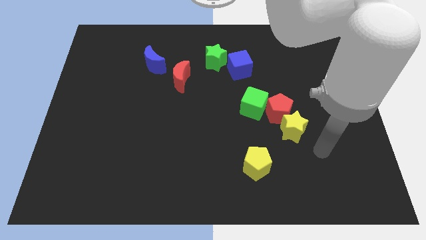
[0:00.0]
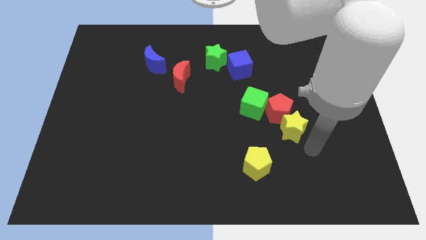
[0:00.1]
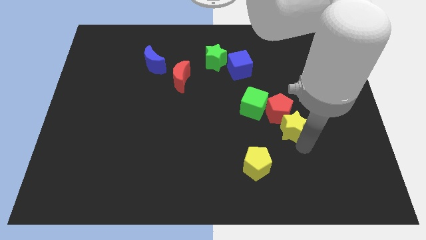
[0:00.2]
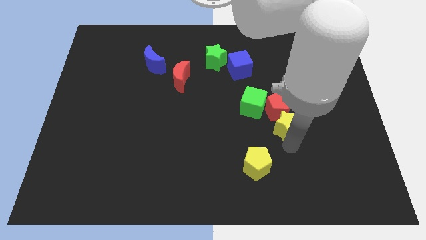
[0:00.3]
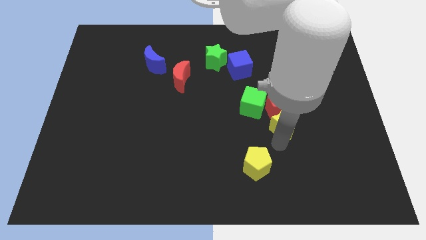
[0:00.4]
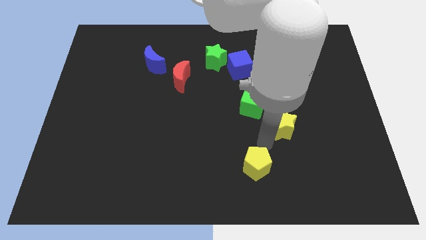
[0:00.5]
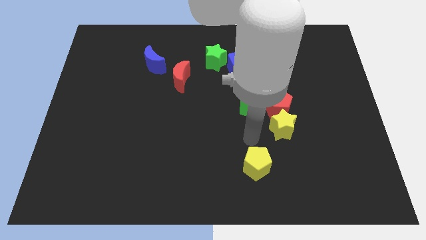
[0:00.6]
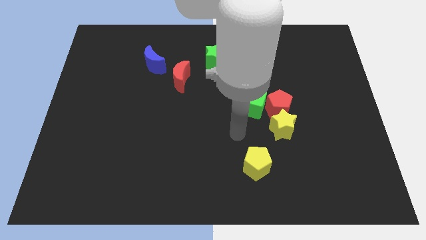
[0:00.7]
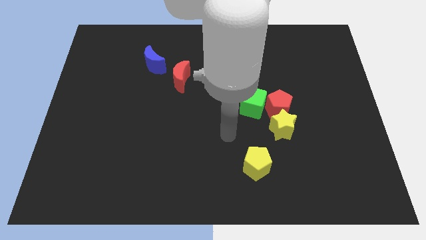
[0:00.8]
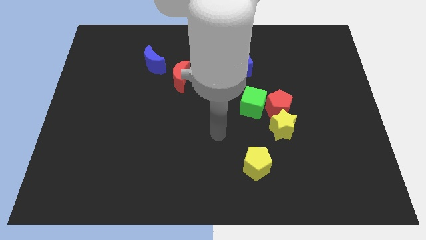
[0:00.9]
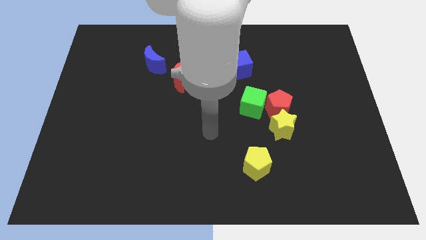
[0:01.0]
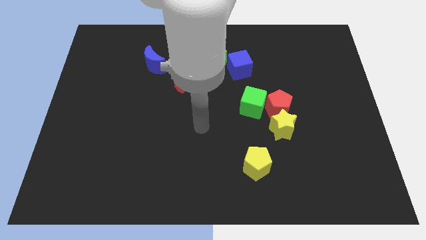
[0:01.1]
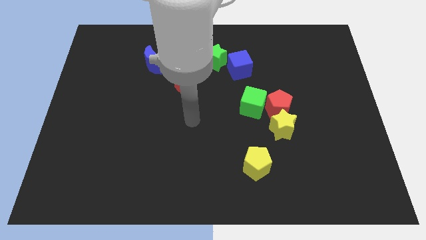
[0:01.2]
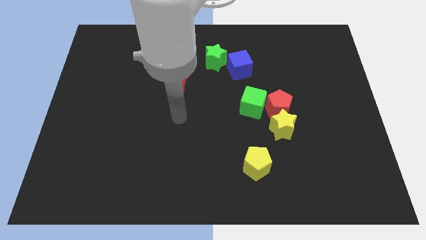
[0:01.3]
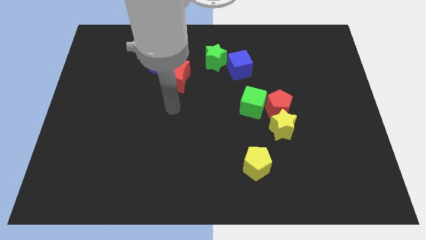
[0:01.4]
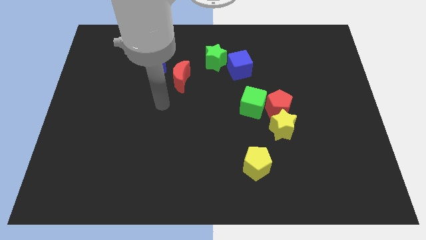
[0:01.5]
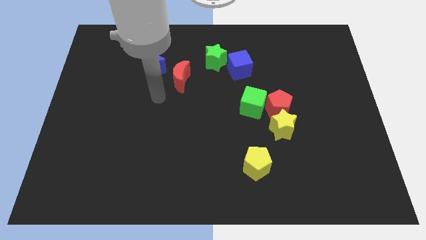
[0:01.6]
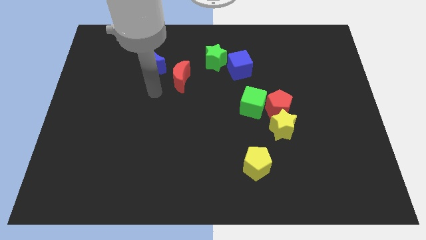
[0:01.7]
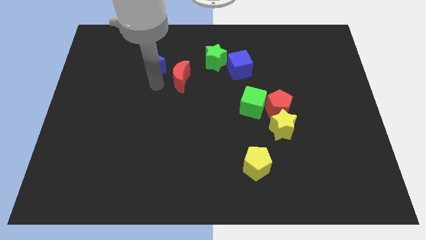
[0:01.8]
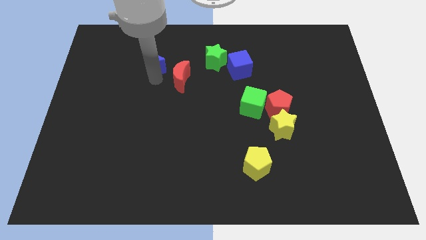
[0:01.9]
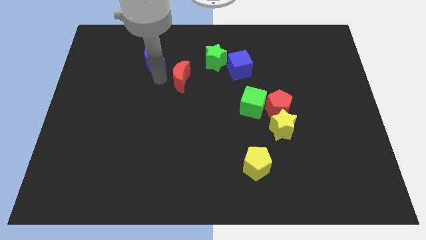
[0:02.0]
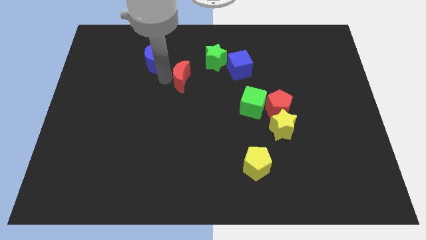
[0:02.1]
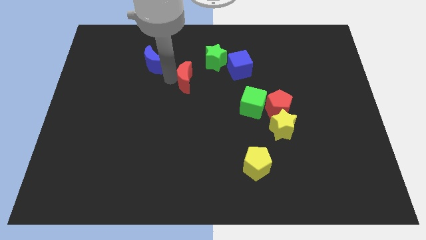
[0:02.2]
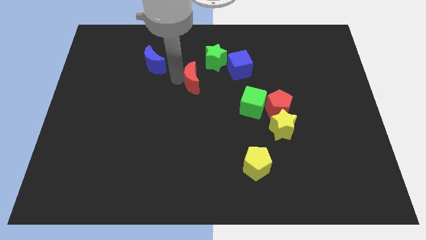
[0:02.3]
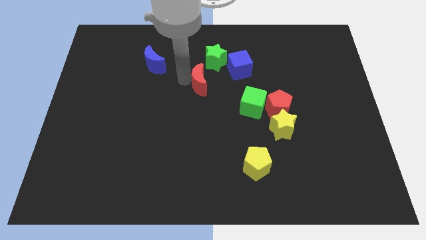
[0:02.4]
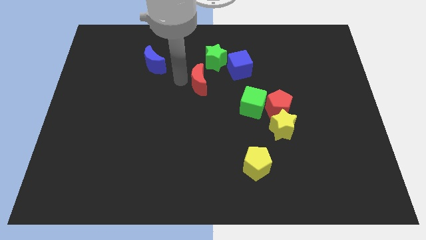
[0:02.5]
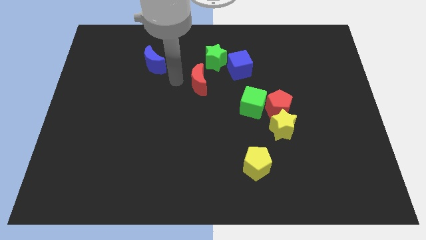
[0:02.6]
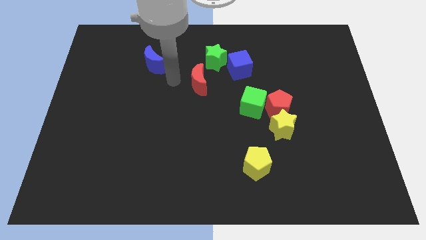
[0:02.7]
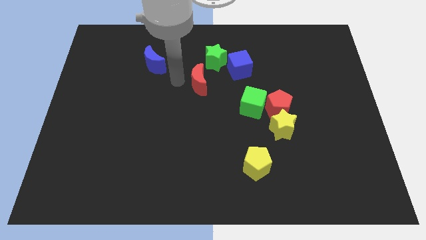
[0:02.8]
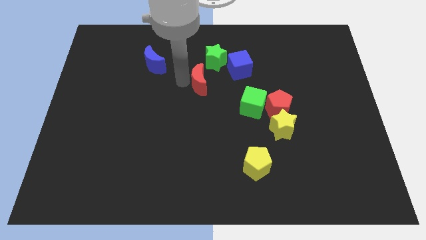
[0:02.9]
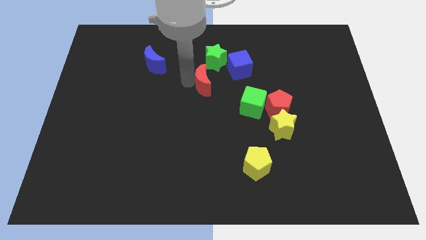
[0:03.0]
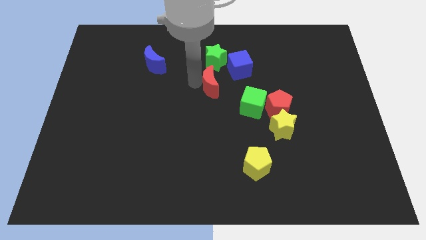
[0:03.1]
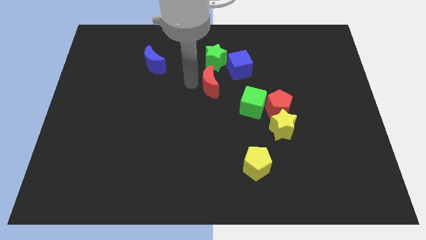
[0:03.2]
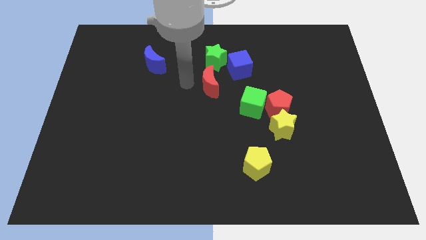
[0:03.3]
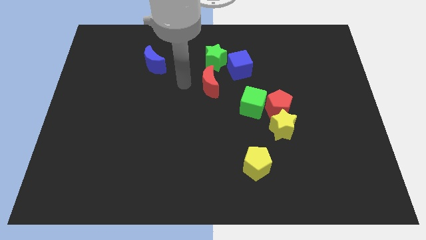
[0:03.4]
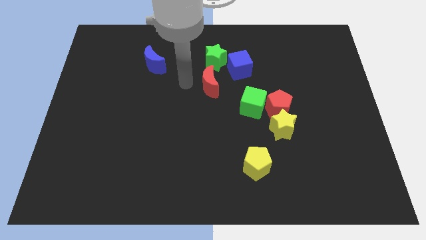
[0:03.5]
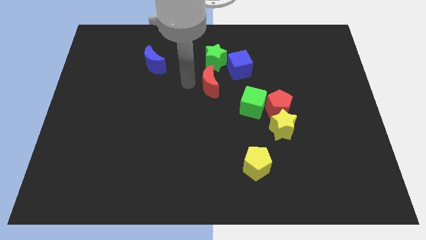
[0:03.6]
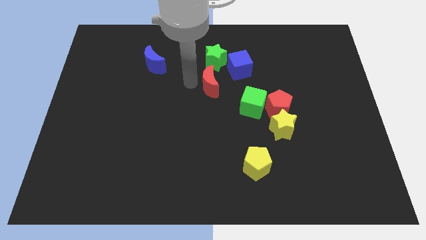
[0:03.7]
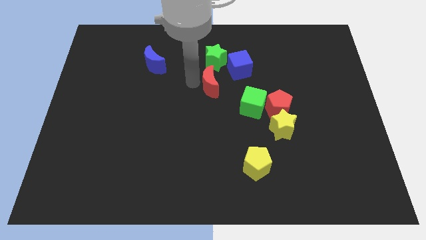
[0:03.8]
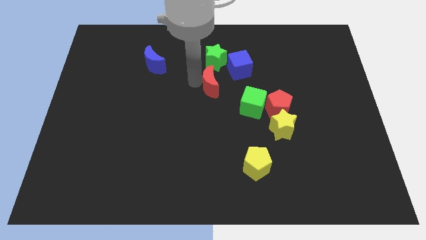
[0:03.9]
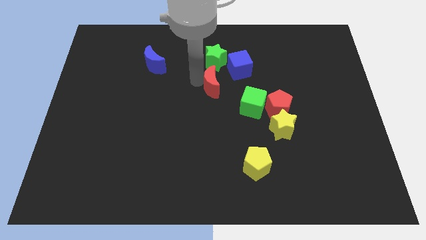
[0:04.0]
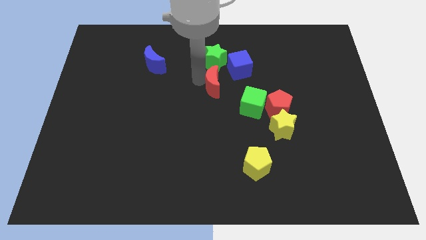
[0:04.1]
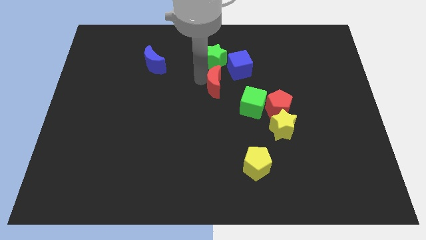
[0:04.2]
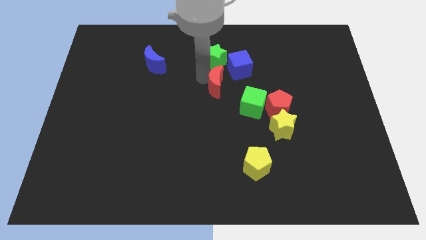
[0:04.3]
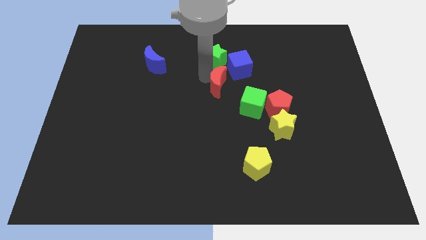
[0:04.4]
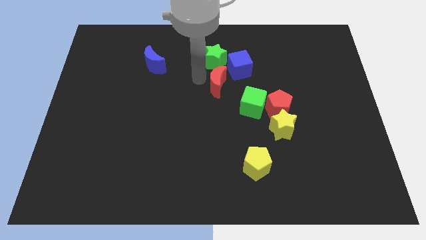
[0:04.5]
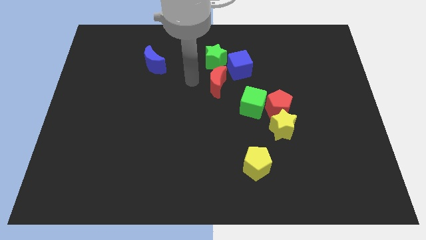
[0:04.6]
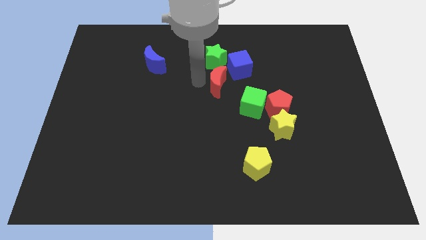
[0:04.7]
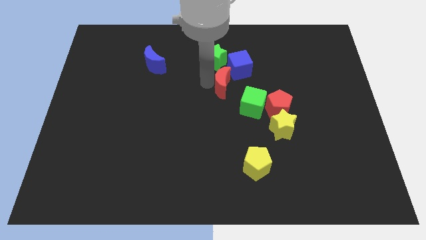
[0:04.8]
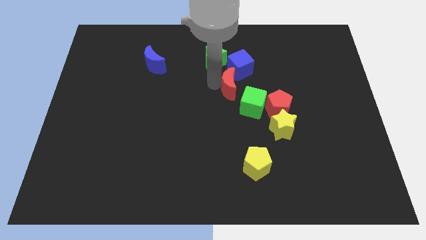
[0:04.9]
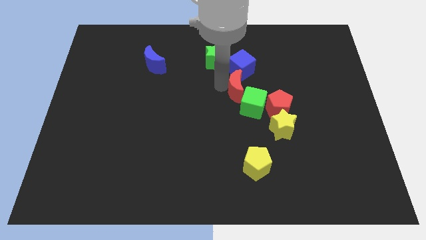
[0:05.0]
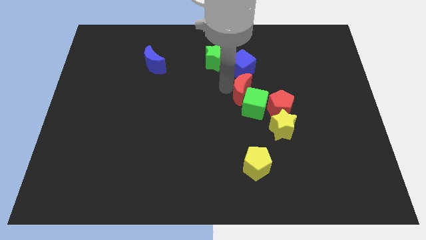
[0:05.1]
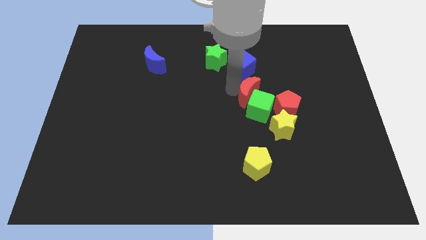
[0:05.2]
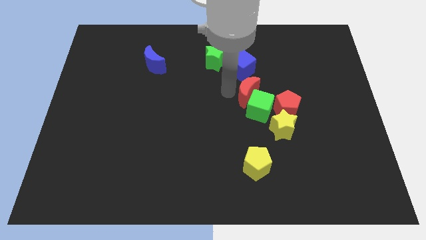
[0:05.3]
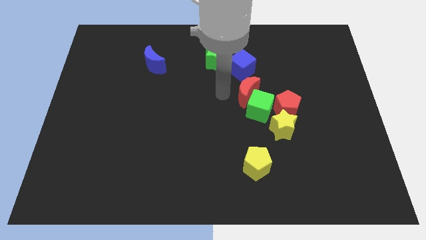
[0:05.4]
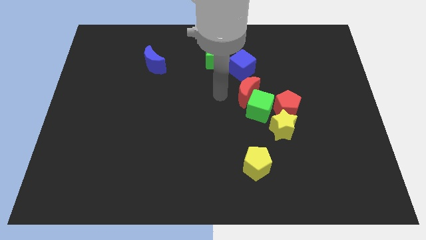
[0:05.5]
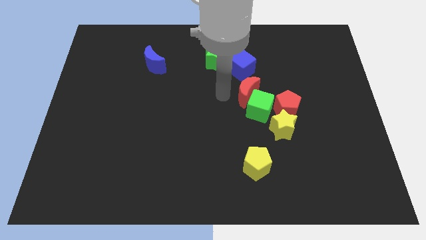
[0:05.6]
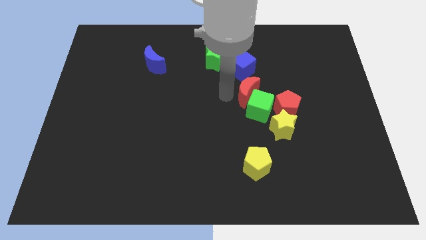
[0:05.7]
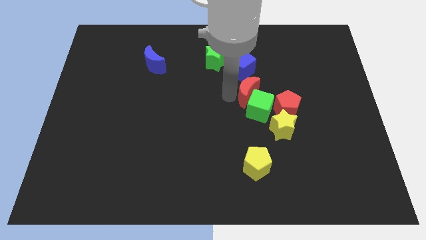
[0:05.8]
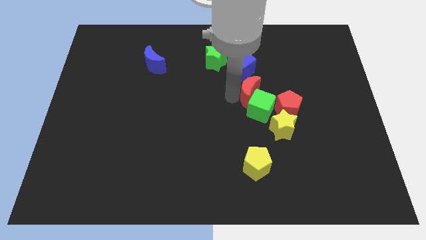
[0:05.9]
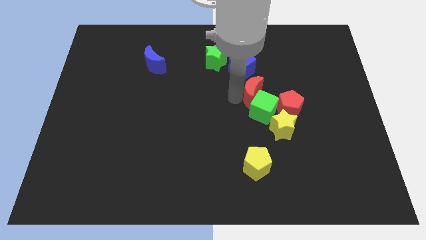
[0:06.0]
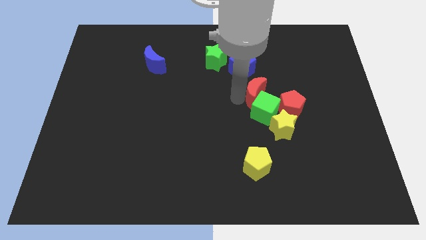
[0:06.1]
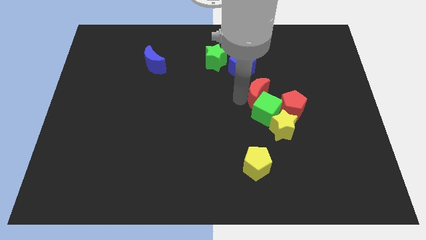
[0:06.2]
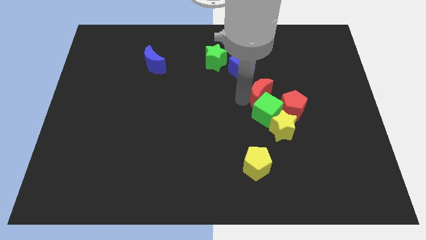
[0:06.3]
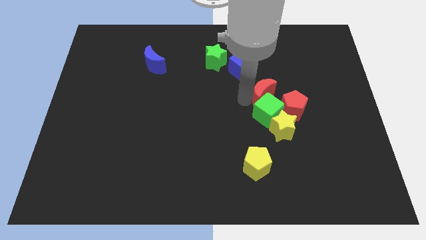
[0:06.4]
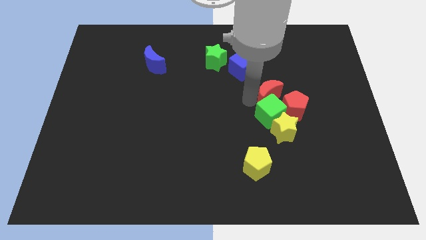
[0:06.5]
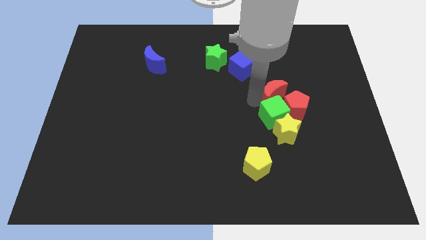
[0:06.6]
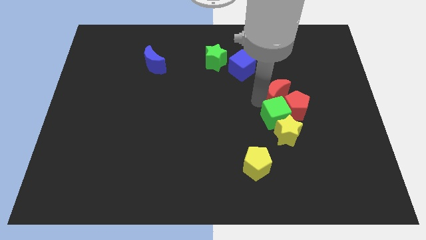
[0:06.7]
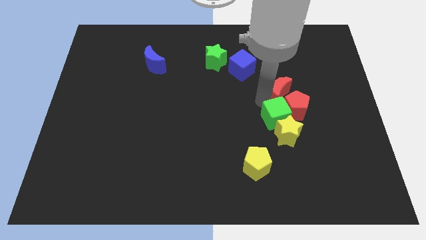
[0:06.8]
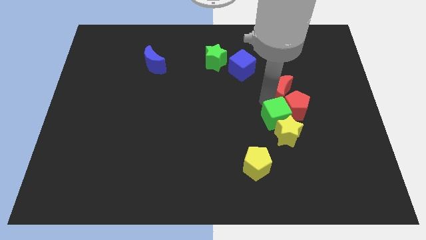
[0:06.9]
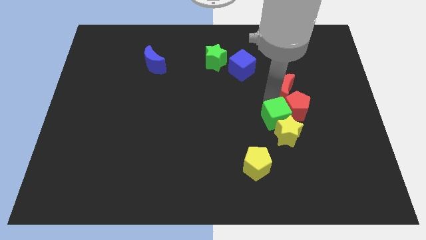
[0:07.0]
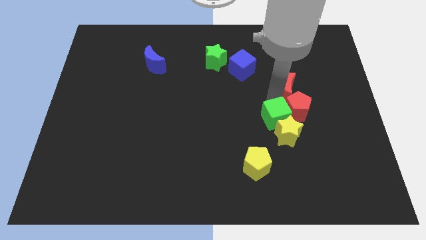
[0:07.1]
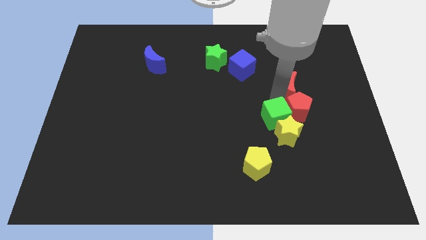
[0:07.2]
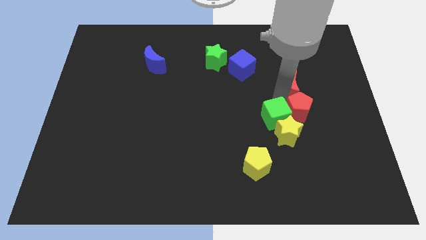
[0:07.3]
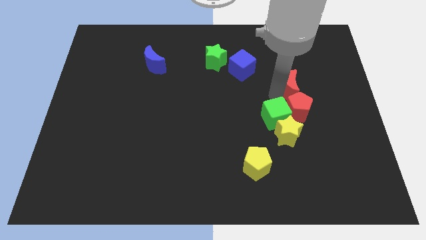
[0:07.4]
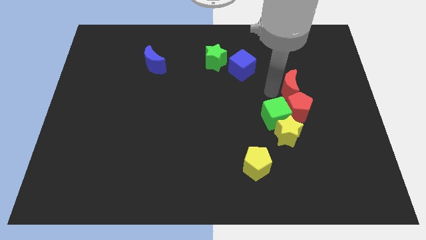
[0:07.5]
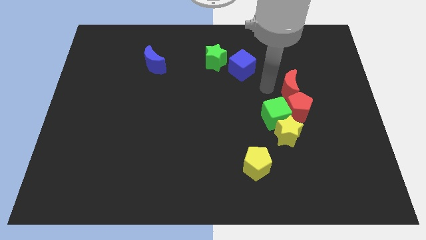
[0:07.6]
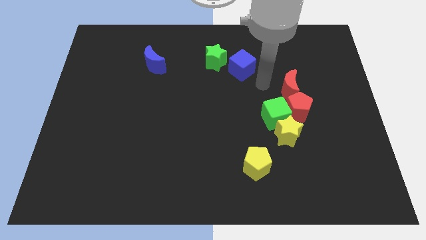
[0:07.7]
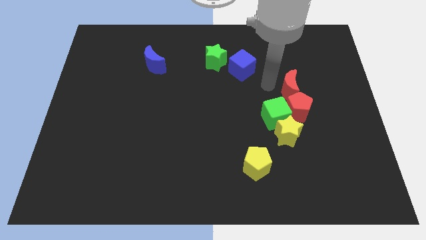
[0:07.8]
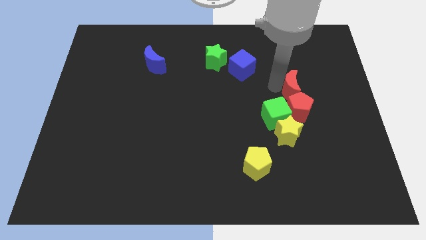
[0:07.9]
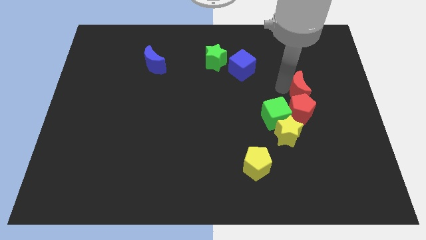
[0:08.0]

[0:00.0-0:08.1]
put the red moon diagonally up and to the right of the red pentagon
